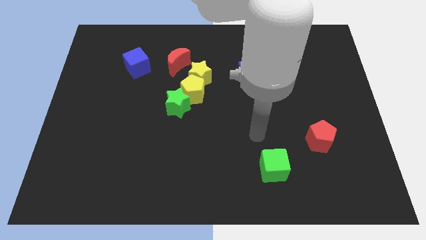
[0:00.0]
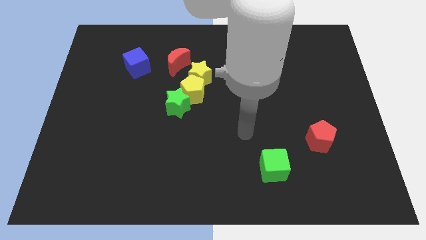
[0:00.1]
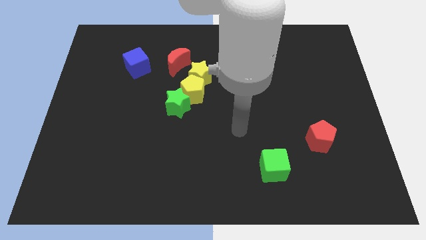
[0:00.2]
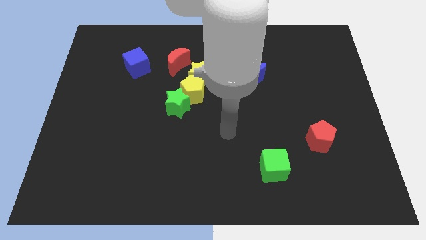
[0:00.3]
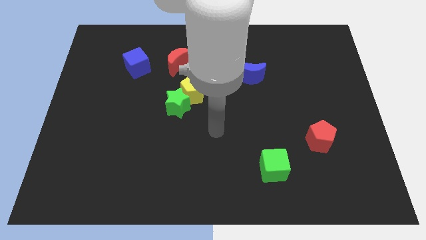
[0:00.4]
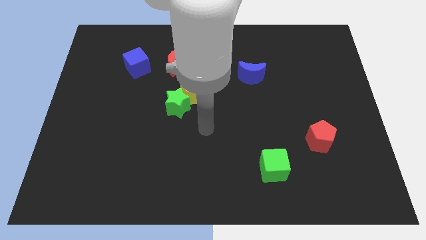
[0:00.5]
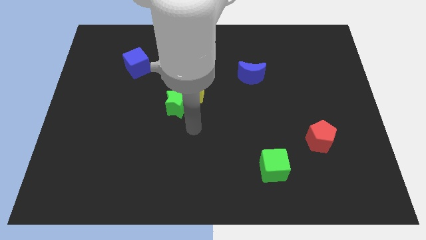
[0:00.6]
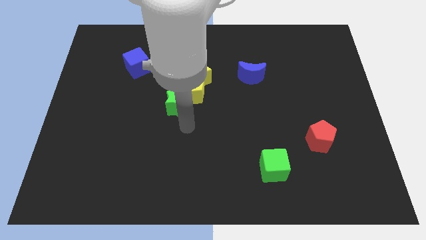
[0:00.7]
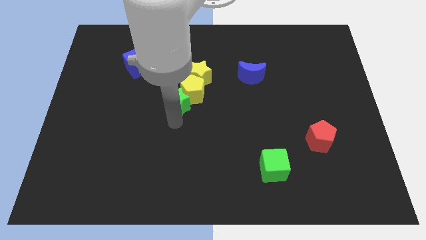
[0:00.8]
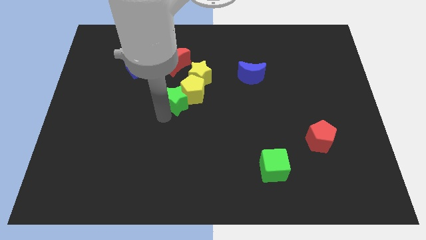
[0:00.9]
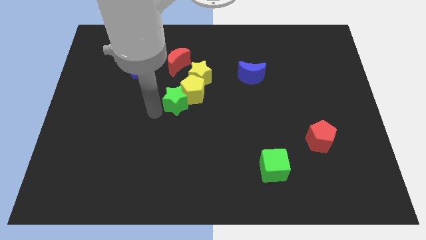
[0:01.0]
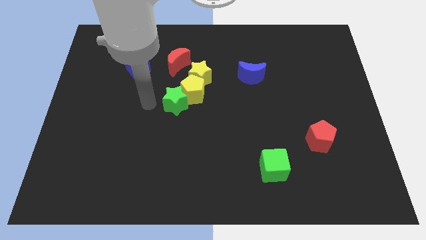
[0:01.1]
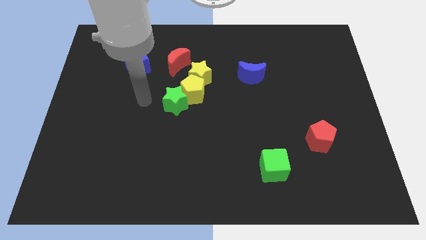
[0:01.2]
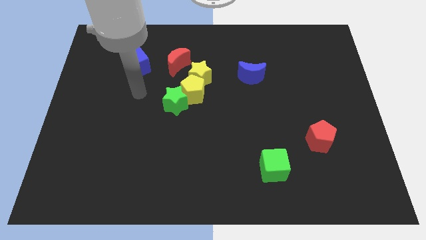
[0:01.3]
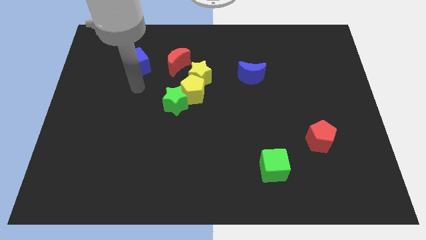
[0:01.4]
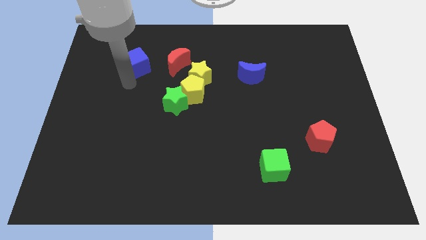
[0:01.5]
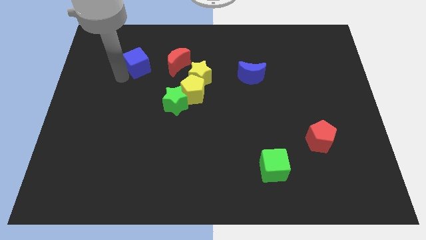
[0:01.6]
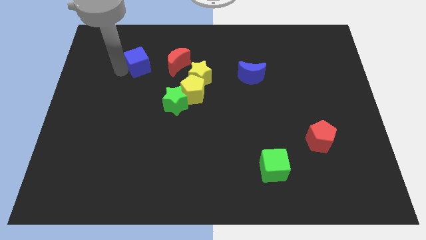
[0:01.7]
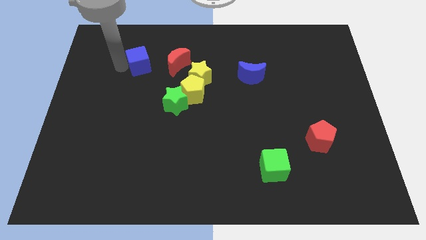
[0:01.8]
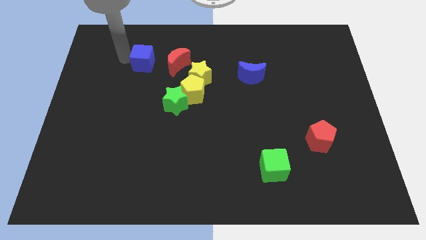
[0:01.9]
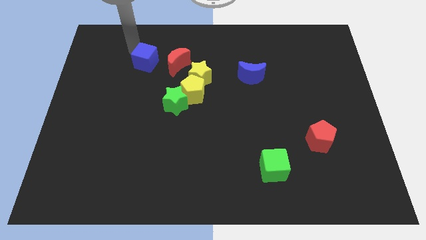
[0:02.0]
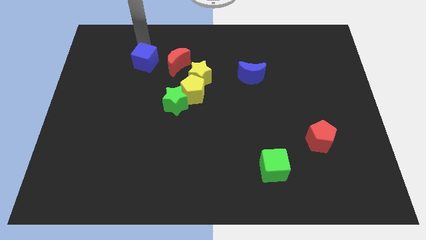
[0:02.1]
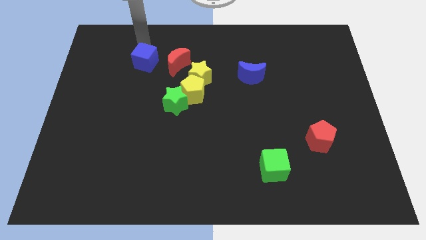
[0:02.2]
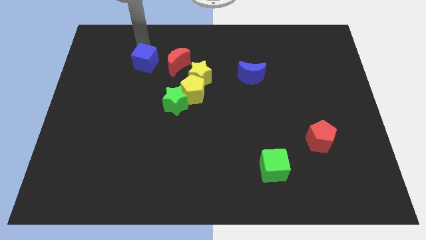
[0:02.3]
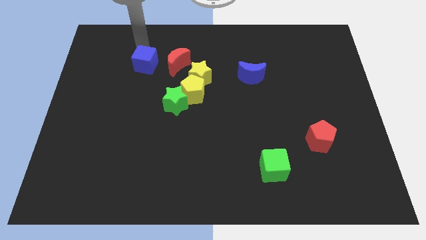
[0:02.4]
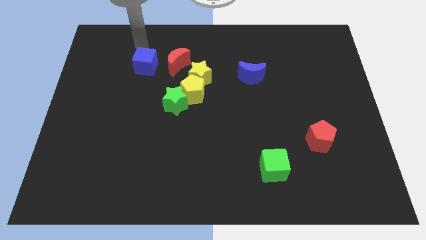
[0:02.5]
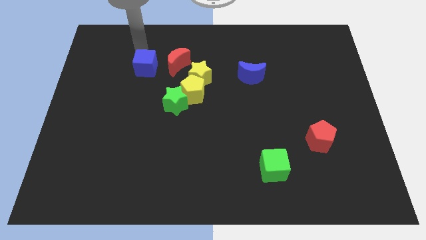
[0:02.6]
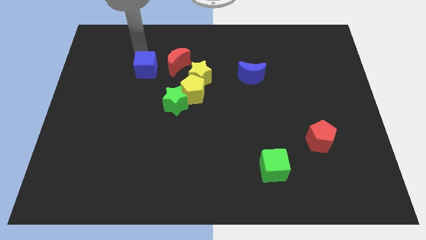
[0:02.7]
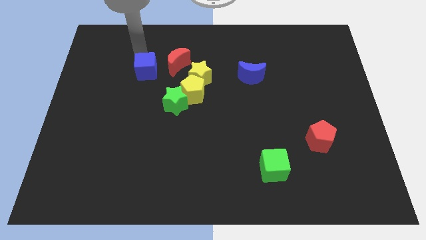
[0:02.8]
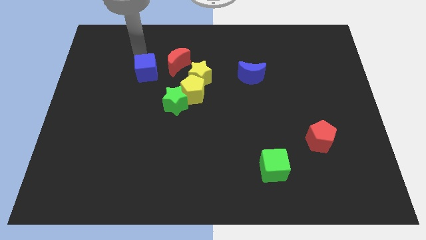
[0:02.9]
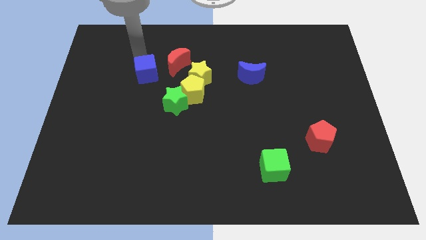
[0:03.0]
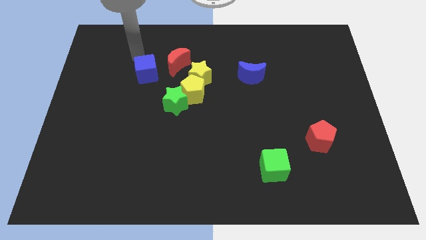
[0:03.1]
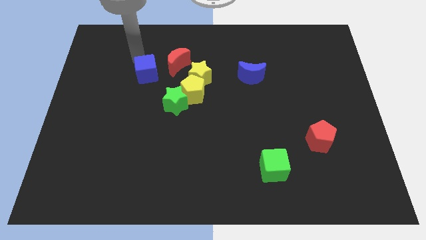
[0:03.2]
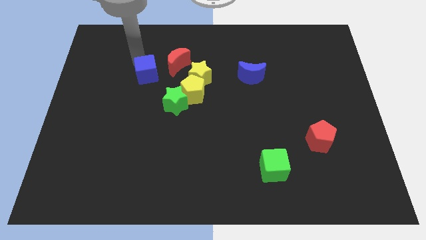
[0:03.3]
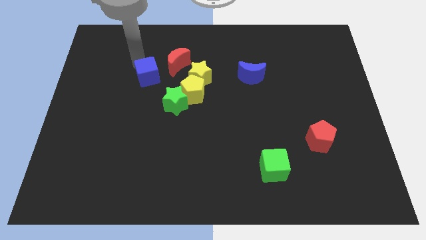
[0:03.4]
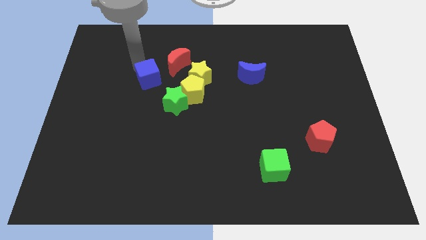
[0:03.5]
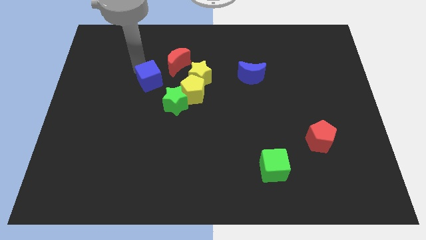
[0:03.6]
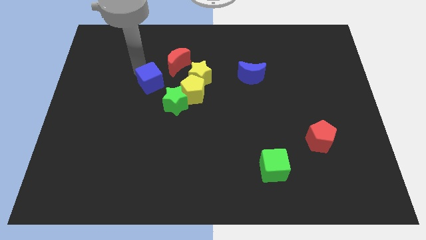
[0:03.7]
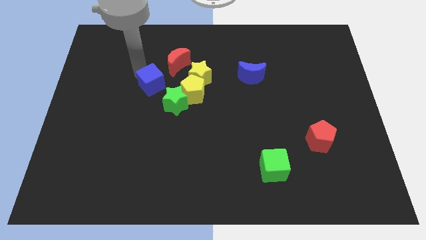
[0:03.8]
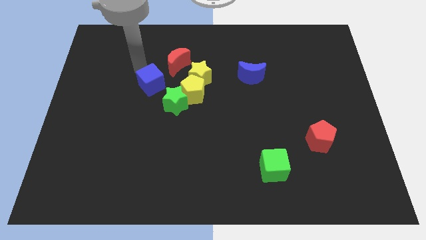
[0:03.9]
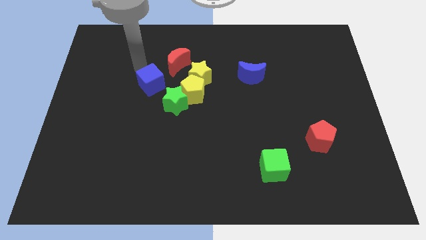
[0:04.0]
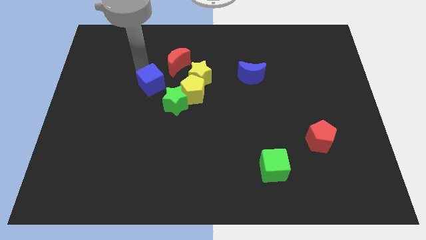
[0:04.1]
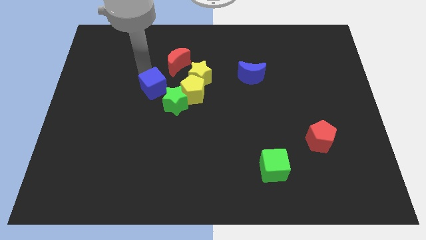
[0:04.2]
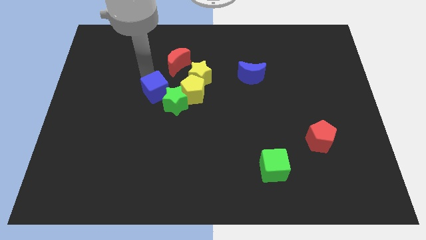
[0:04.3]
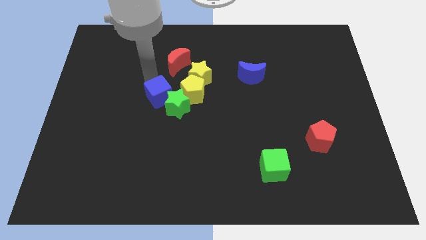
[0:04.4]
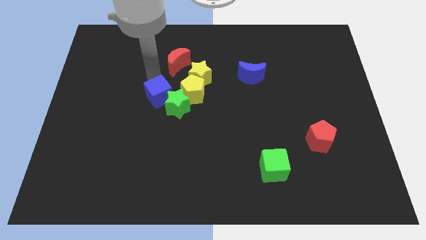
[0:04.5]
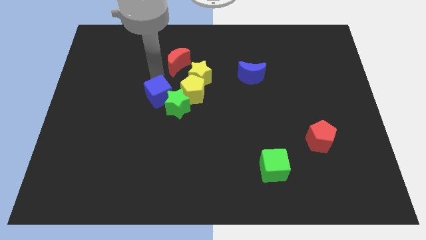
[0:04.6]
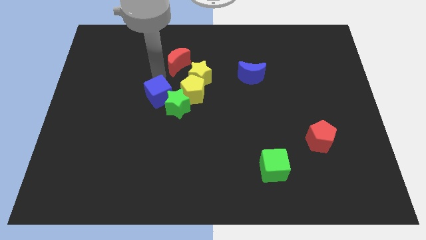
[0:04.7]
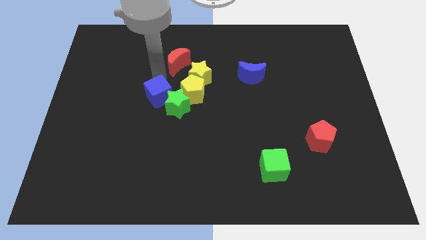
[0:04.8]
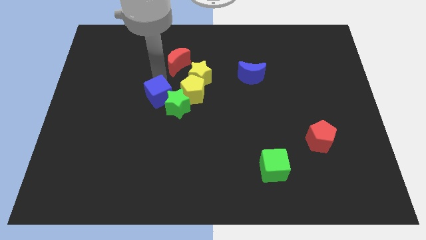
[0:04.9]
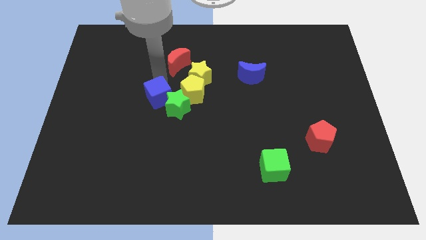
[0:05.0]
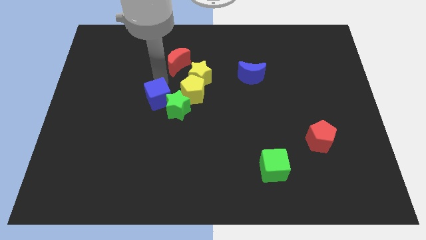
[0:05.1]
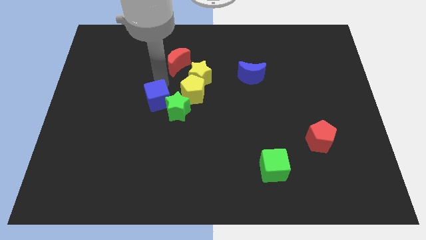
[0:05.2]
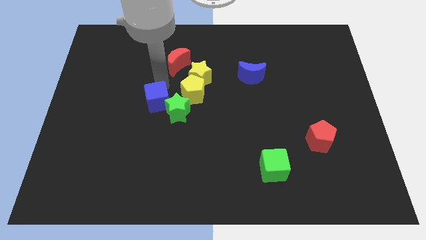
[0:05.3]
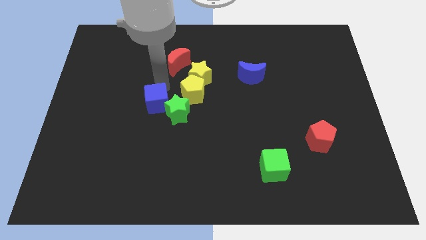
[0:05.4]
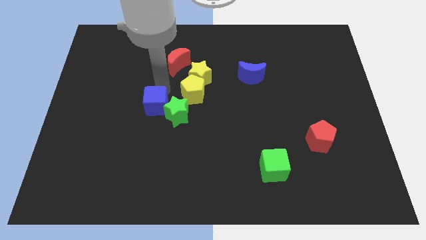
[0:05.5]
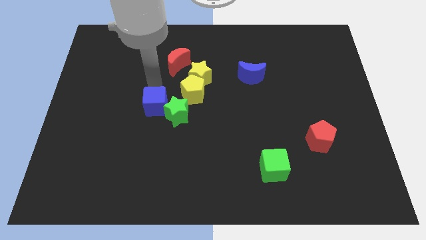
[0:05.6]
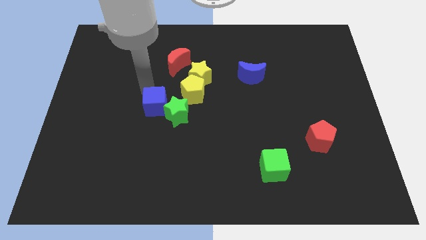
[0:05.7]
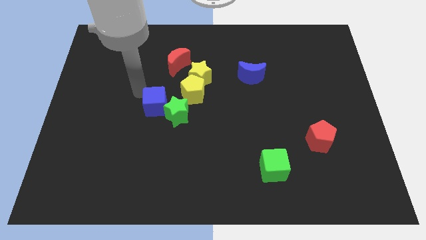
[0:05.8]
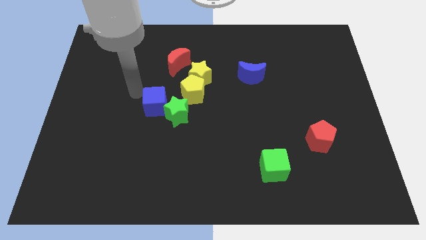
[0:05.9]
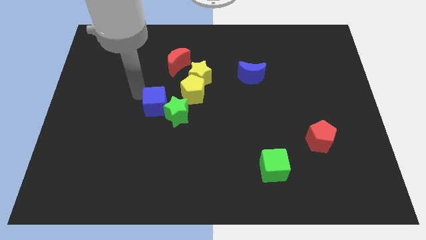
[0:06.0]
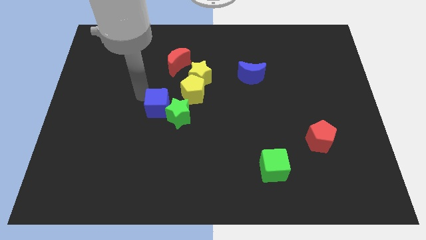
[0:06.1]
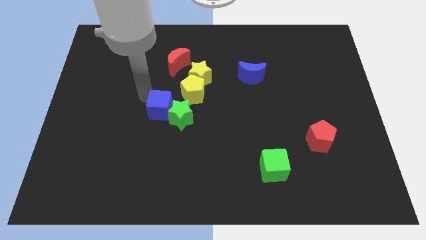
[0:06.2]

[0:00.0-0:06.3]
put the blue cube to the center of the board

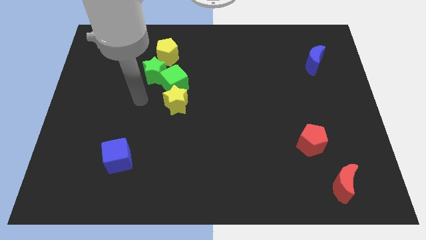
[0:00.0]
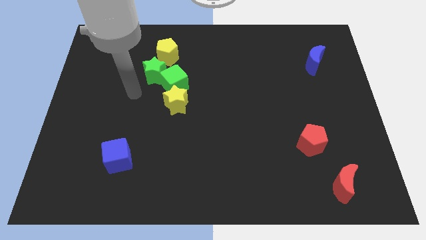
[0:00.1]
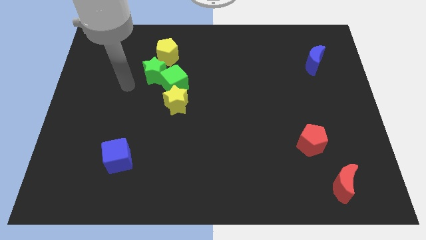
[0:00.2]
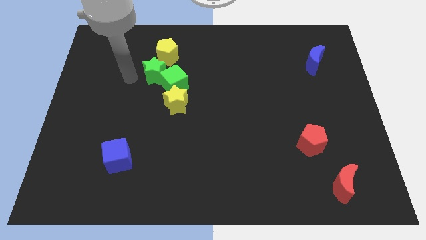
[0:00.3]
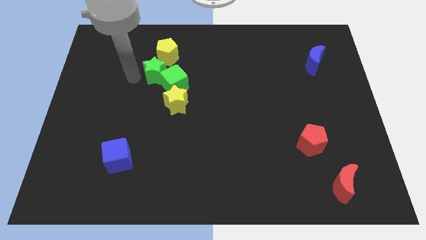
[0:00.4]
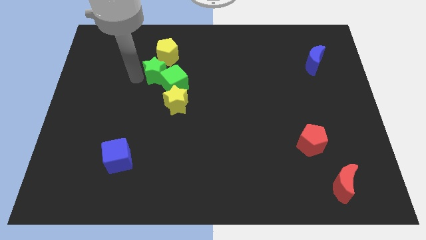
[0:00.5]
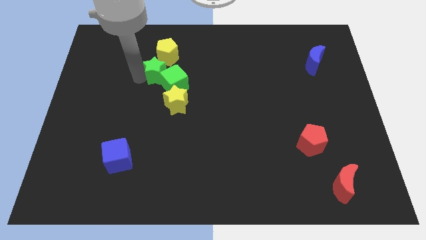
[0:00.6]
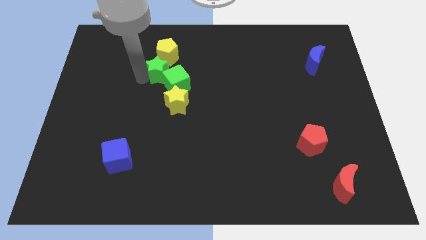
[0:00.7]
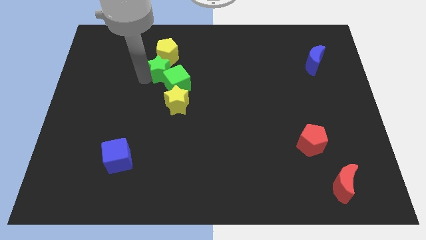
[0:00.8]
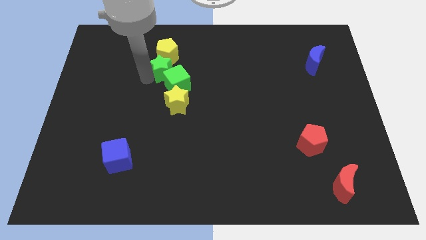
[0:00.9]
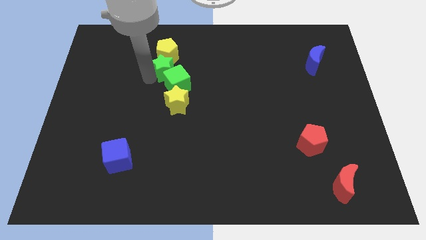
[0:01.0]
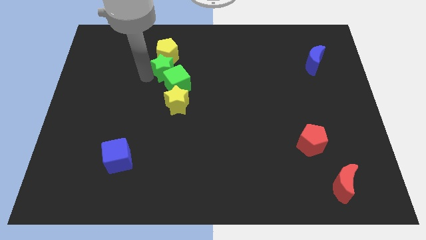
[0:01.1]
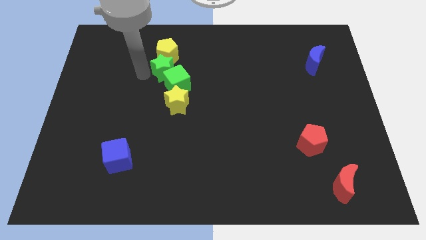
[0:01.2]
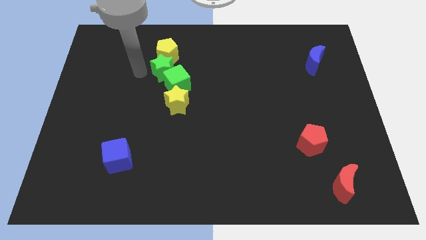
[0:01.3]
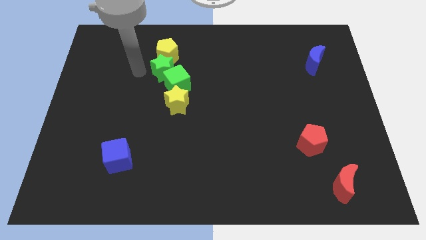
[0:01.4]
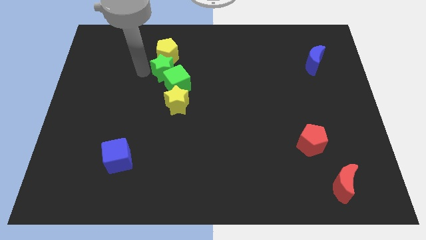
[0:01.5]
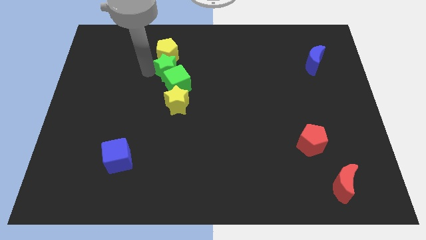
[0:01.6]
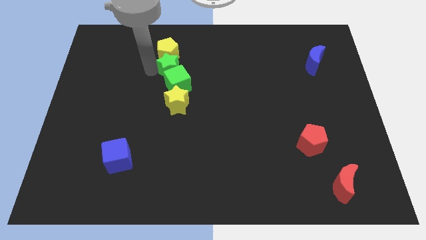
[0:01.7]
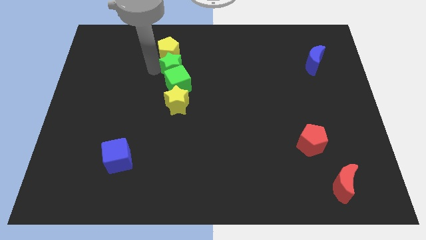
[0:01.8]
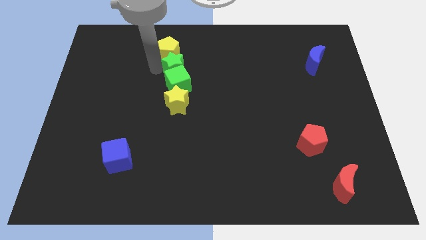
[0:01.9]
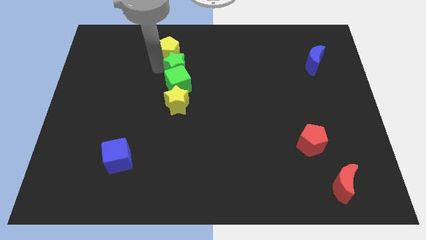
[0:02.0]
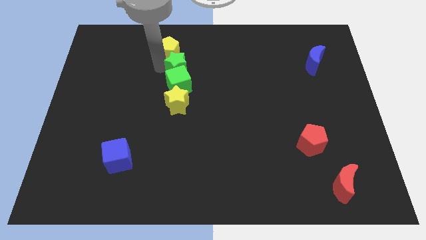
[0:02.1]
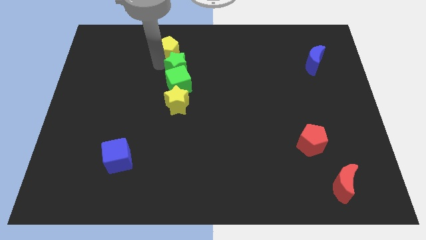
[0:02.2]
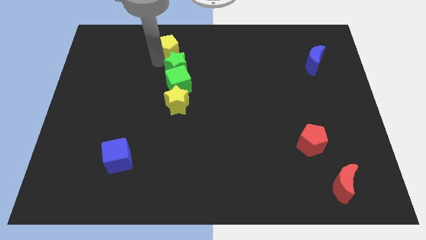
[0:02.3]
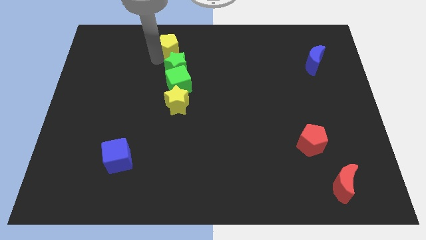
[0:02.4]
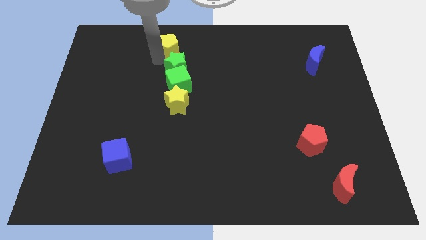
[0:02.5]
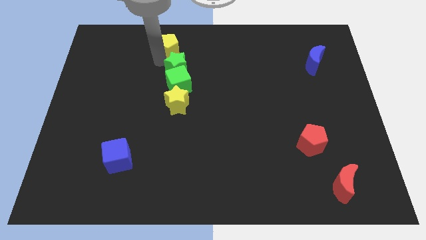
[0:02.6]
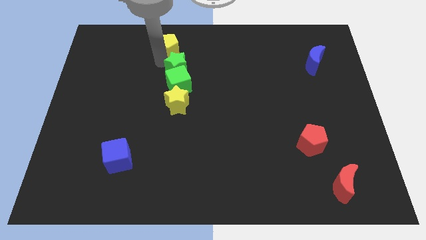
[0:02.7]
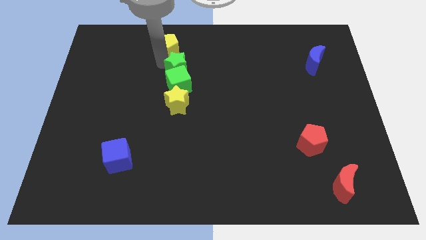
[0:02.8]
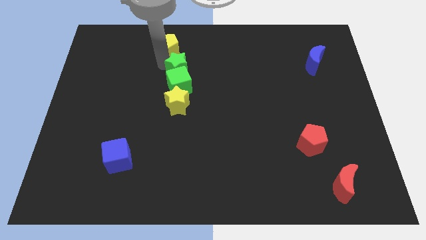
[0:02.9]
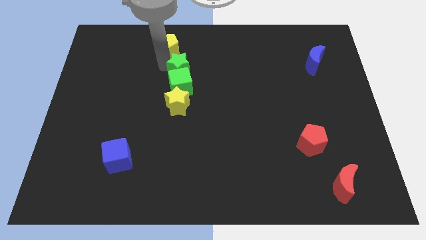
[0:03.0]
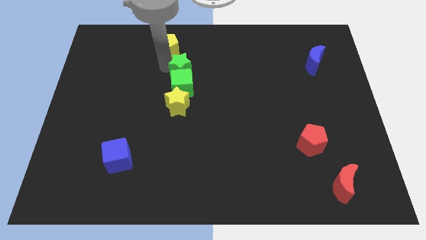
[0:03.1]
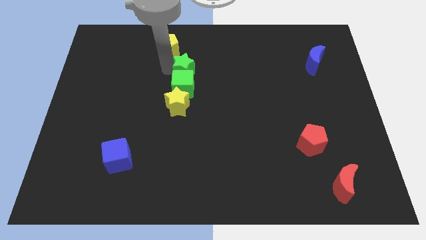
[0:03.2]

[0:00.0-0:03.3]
put the green star to the middle
